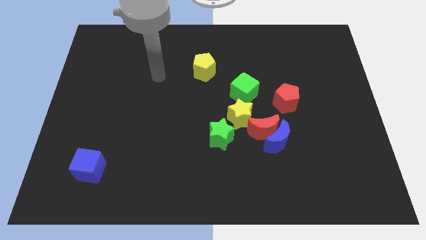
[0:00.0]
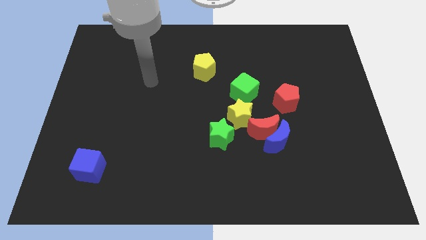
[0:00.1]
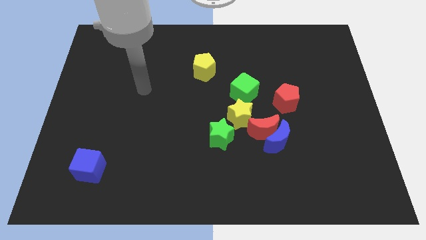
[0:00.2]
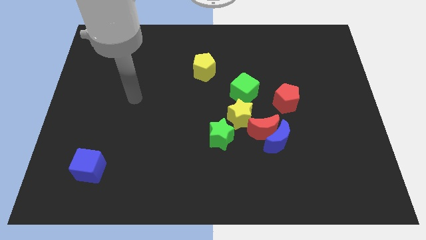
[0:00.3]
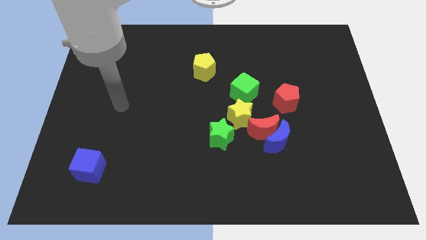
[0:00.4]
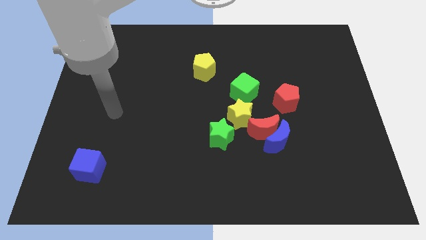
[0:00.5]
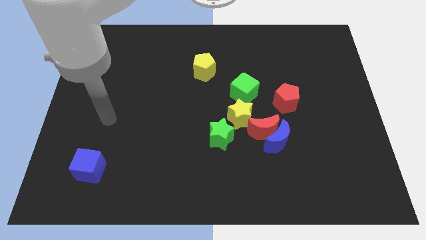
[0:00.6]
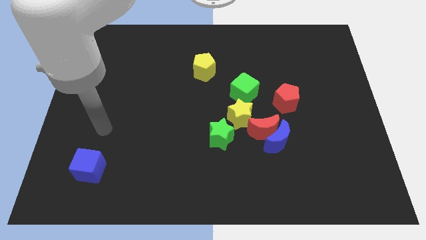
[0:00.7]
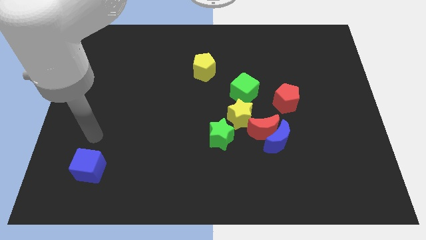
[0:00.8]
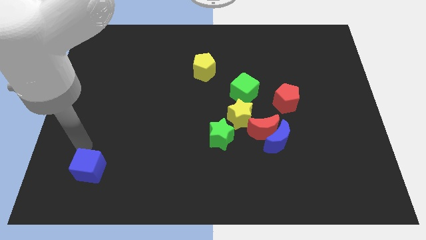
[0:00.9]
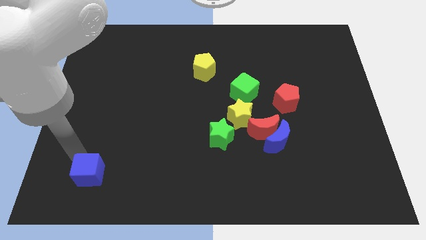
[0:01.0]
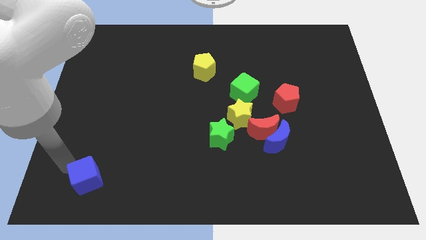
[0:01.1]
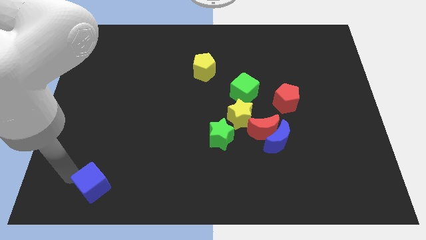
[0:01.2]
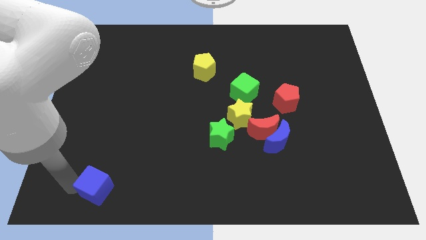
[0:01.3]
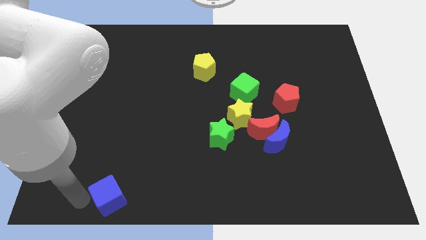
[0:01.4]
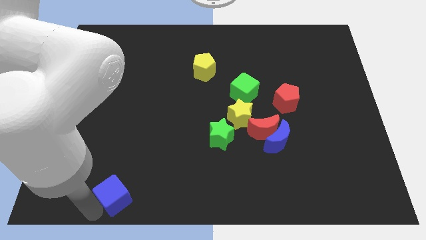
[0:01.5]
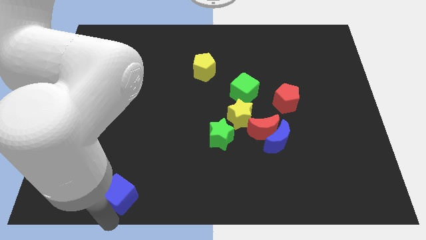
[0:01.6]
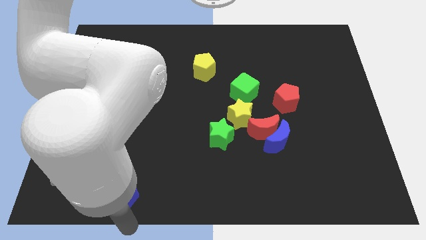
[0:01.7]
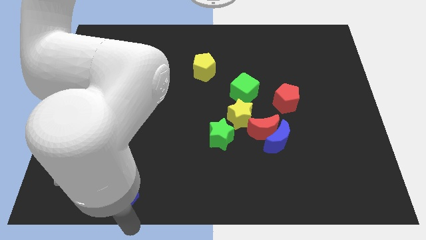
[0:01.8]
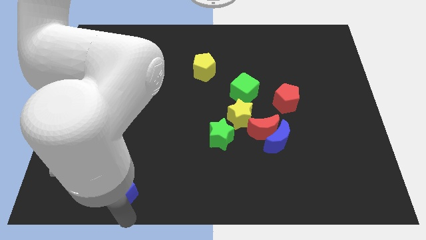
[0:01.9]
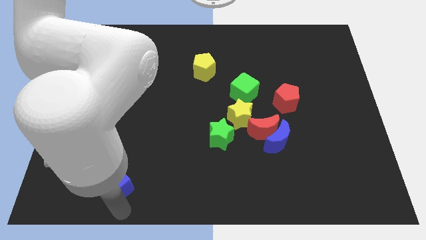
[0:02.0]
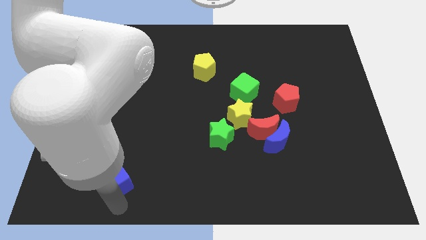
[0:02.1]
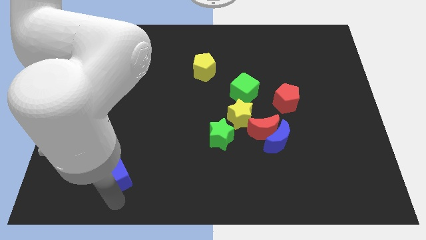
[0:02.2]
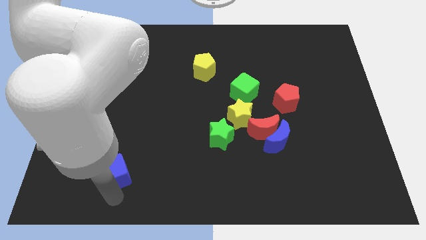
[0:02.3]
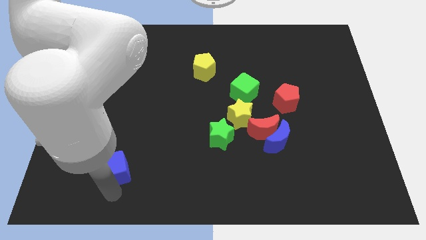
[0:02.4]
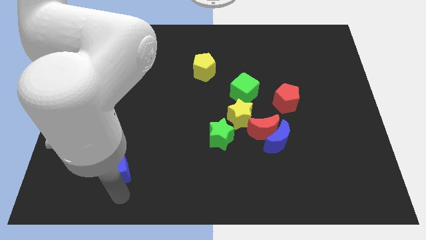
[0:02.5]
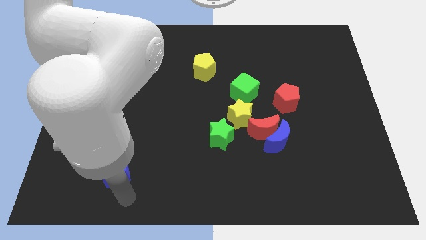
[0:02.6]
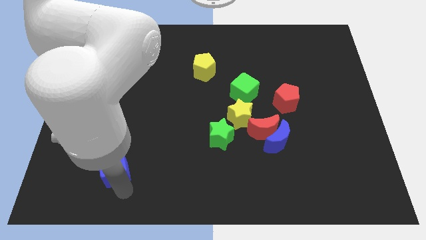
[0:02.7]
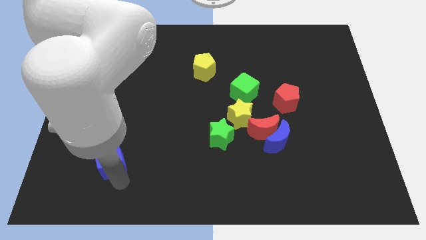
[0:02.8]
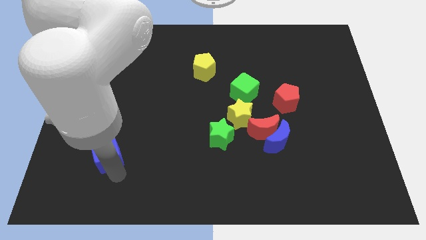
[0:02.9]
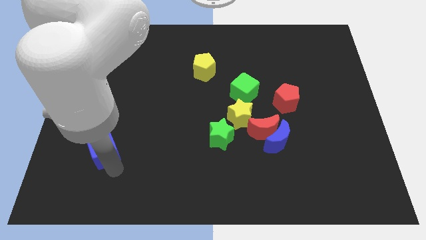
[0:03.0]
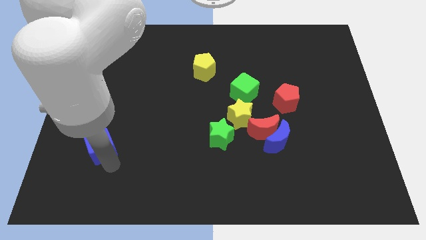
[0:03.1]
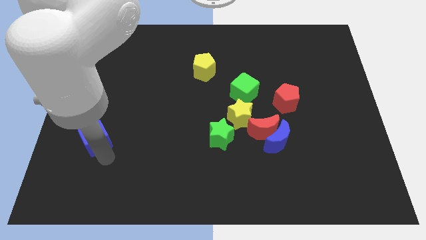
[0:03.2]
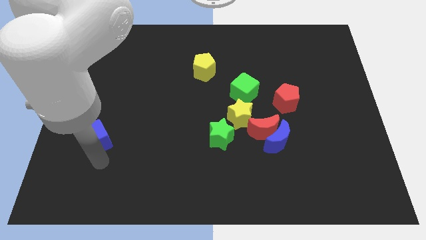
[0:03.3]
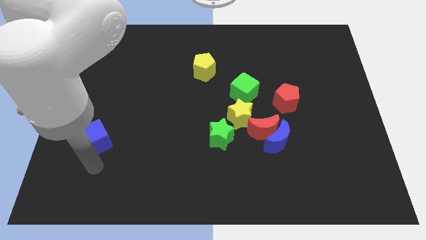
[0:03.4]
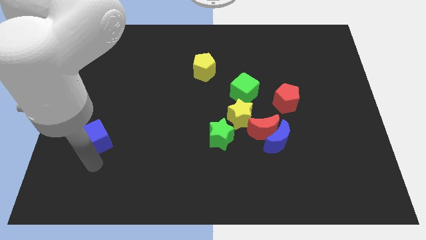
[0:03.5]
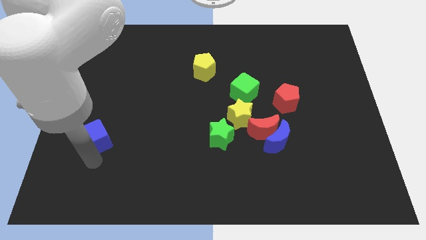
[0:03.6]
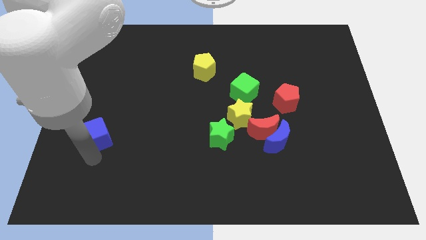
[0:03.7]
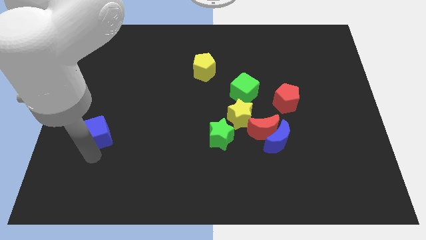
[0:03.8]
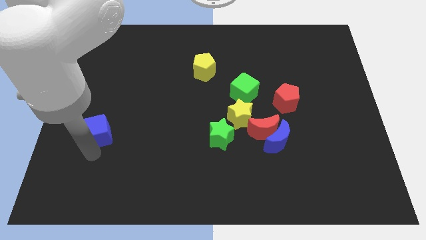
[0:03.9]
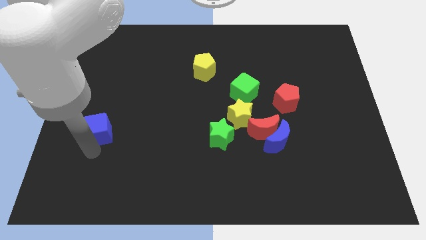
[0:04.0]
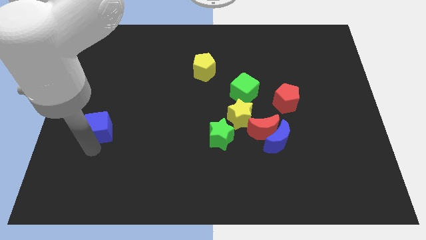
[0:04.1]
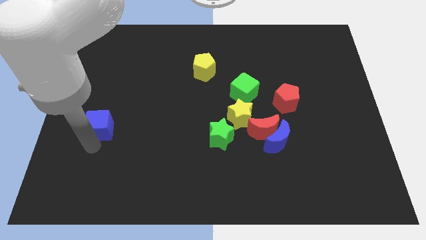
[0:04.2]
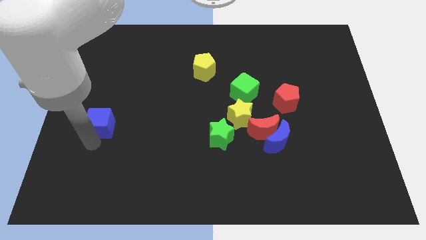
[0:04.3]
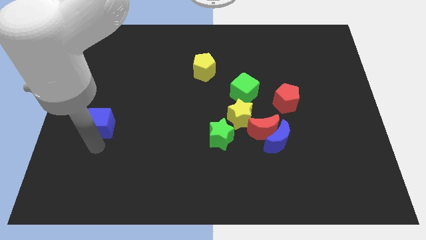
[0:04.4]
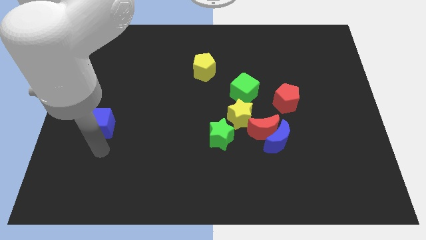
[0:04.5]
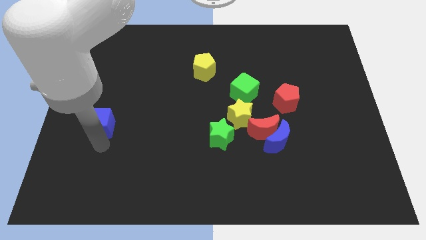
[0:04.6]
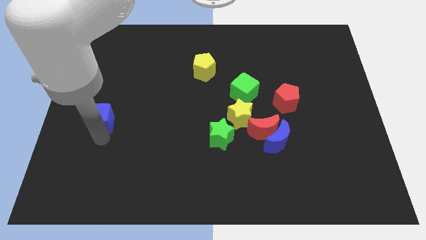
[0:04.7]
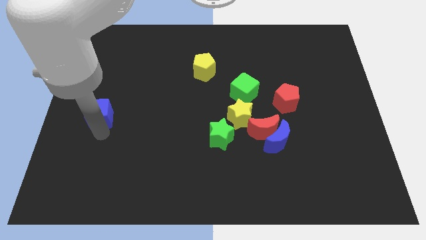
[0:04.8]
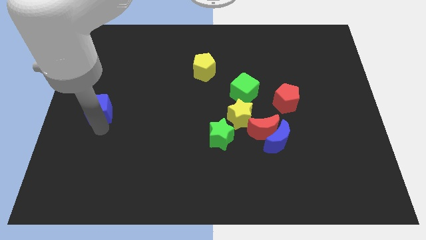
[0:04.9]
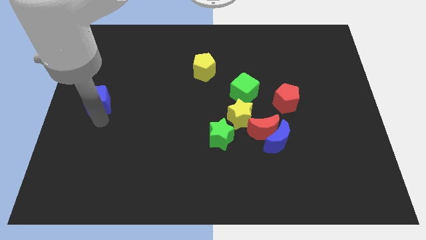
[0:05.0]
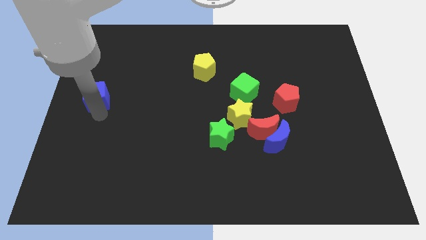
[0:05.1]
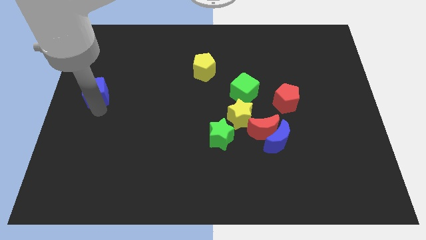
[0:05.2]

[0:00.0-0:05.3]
push the blue cube upwards

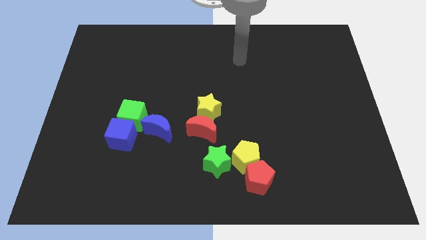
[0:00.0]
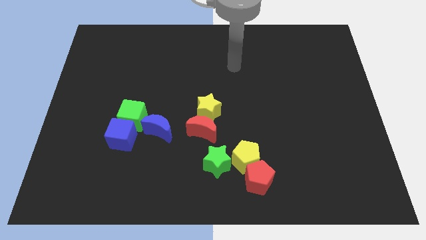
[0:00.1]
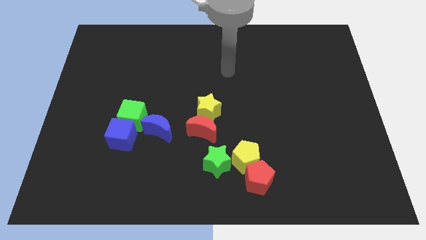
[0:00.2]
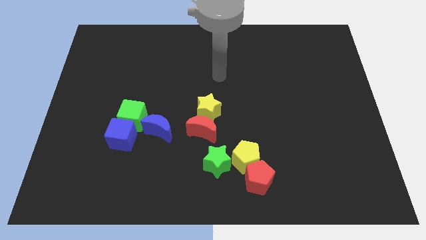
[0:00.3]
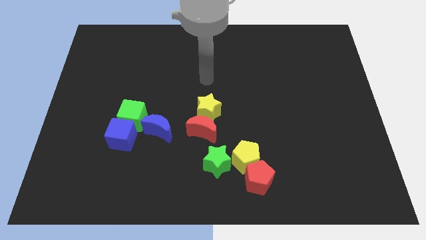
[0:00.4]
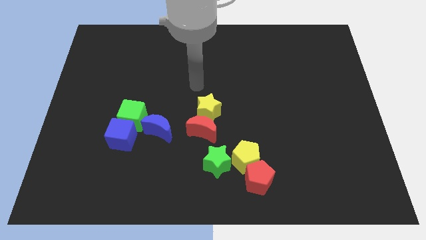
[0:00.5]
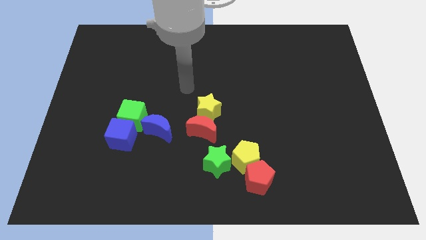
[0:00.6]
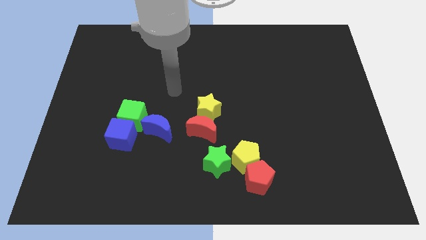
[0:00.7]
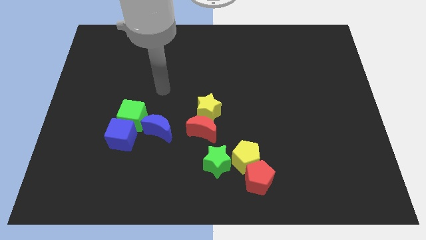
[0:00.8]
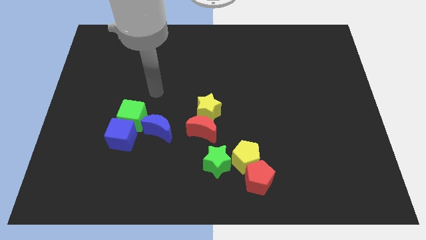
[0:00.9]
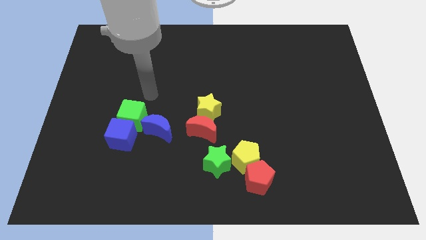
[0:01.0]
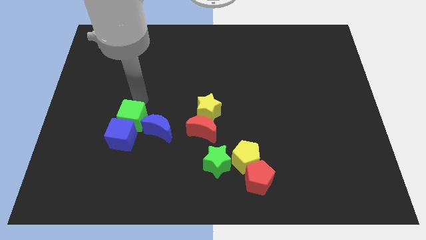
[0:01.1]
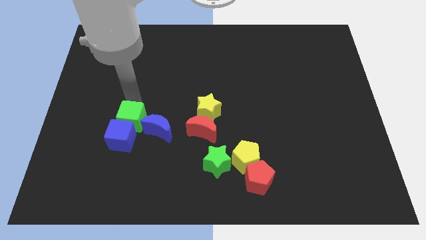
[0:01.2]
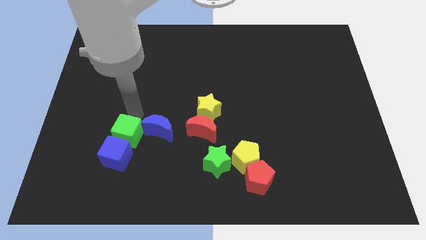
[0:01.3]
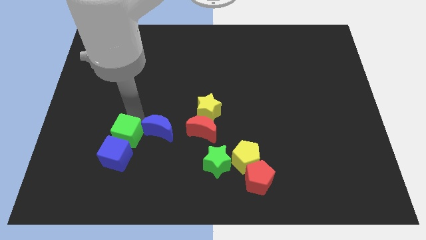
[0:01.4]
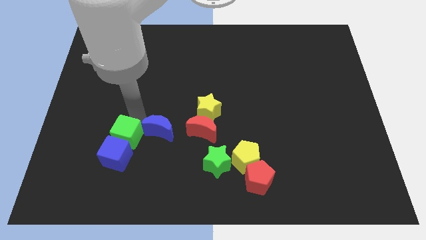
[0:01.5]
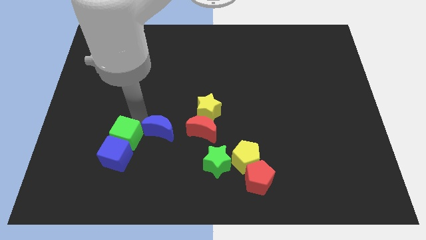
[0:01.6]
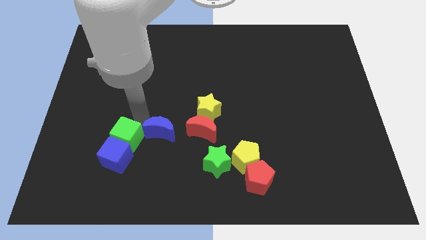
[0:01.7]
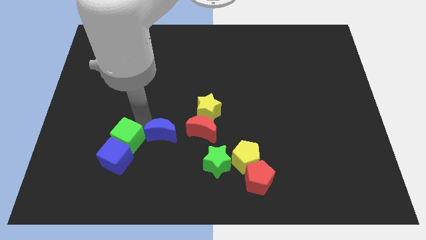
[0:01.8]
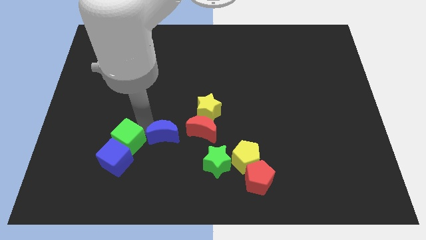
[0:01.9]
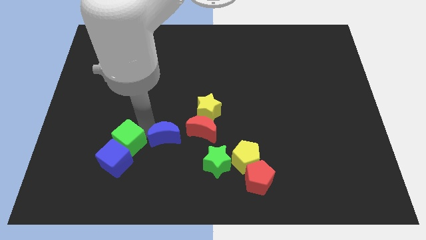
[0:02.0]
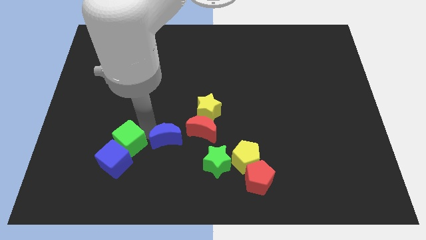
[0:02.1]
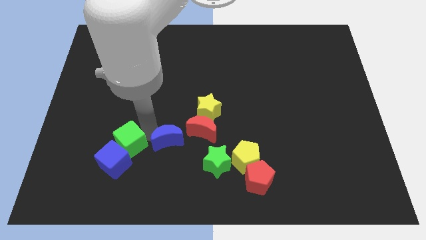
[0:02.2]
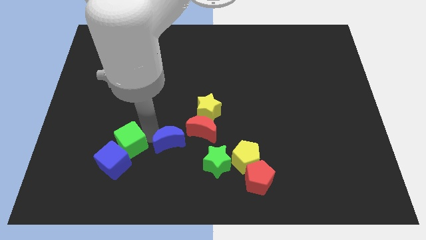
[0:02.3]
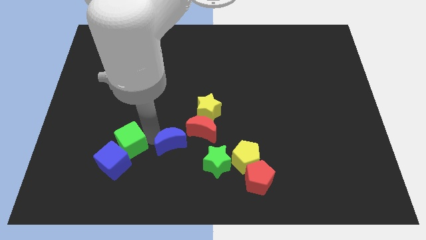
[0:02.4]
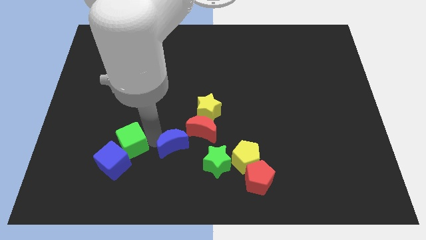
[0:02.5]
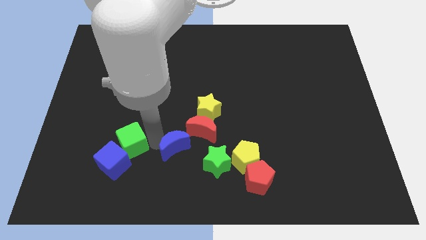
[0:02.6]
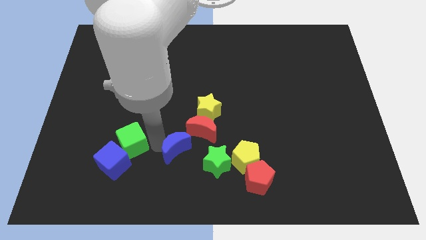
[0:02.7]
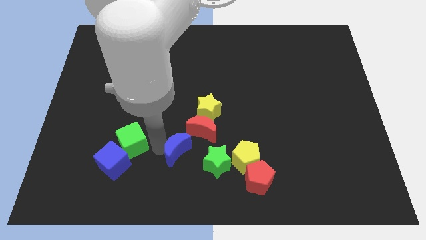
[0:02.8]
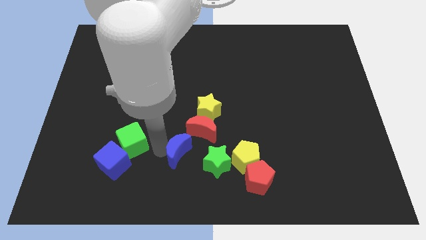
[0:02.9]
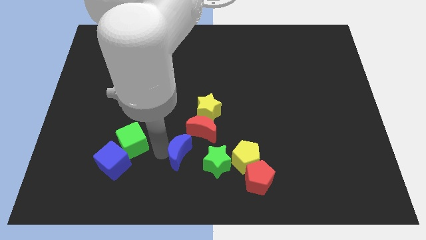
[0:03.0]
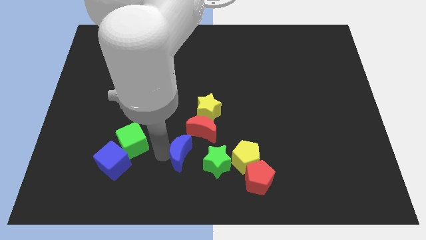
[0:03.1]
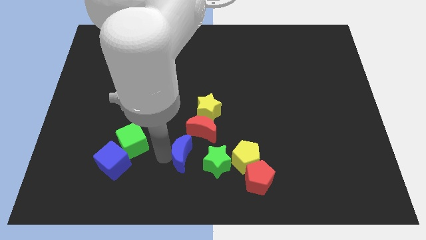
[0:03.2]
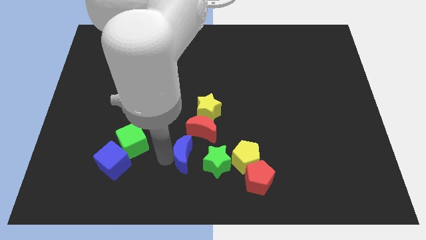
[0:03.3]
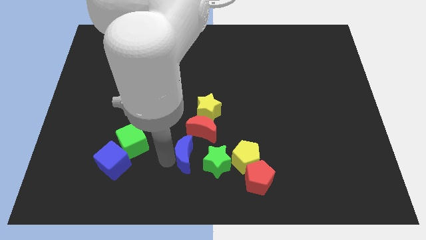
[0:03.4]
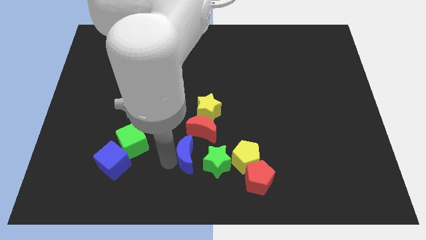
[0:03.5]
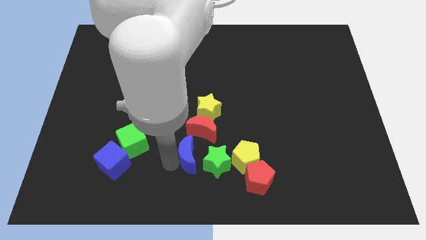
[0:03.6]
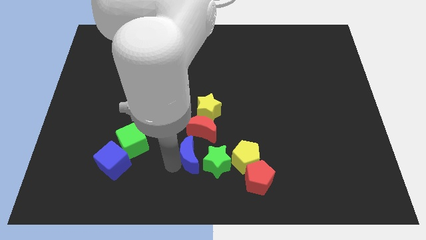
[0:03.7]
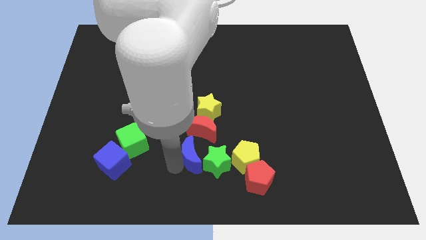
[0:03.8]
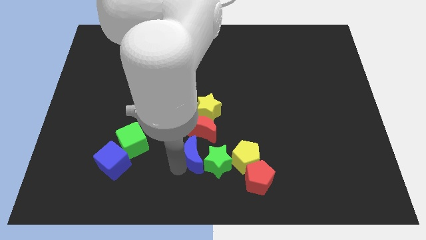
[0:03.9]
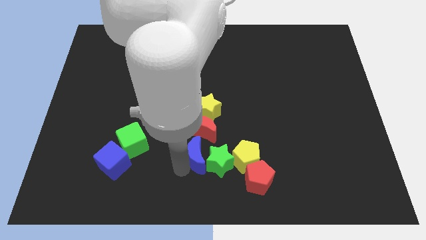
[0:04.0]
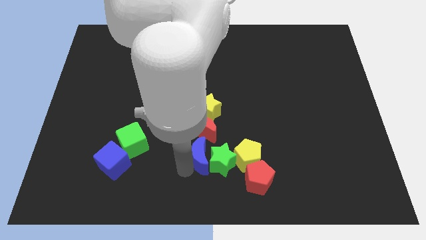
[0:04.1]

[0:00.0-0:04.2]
slightly push the blue moon right
